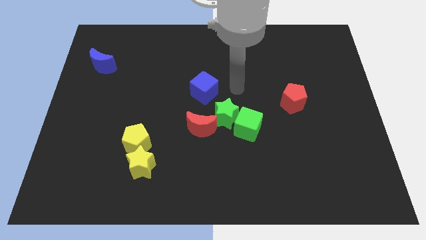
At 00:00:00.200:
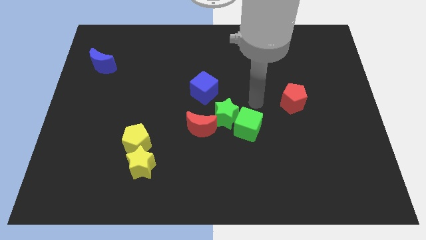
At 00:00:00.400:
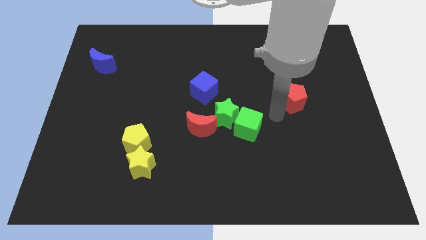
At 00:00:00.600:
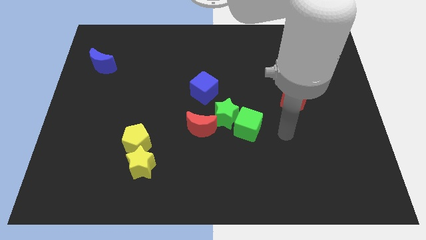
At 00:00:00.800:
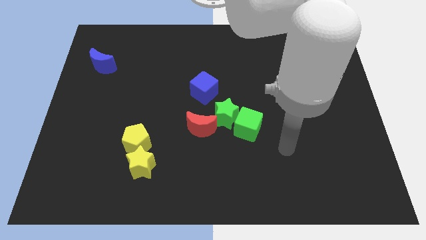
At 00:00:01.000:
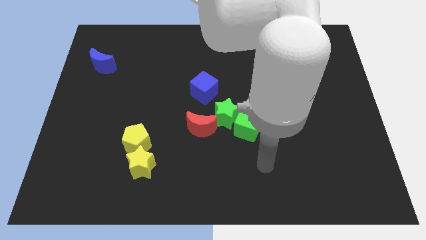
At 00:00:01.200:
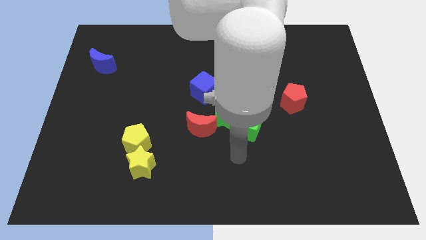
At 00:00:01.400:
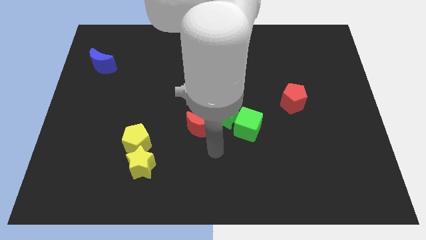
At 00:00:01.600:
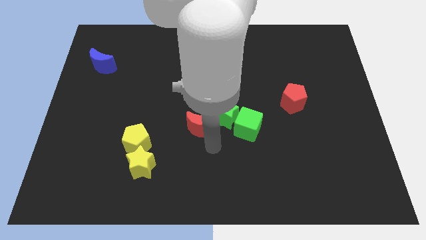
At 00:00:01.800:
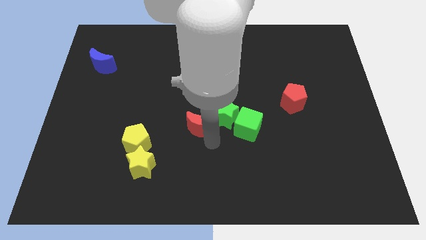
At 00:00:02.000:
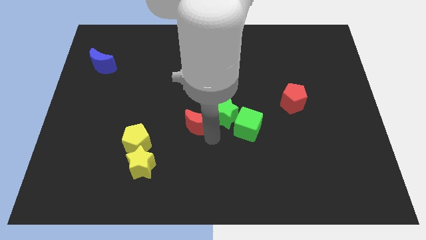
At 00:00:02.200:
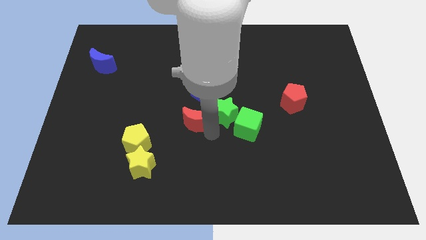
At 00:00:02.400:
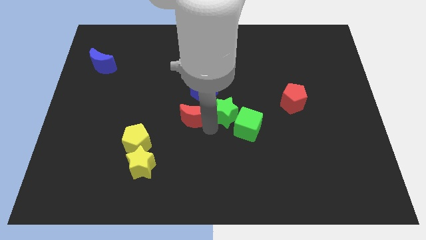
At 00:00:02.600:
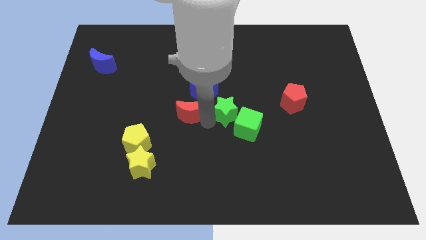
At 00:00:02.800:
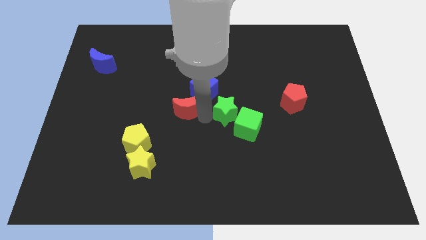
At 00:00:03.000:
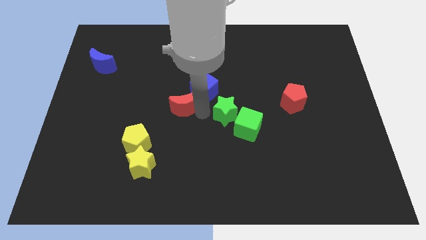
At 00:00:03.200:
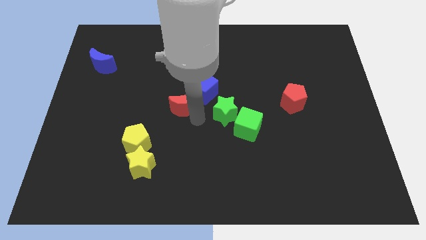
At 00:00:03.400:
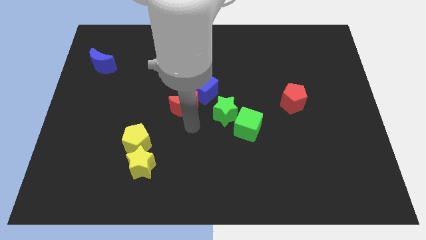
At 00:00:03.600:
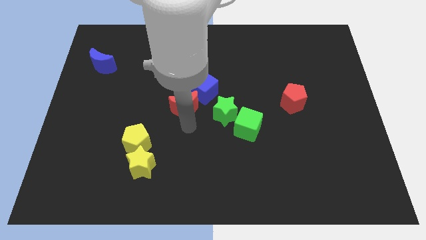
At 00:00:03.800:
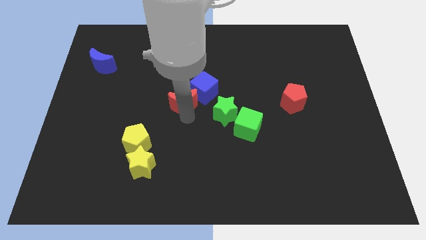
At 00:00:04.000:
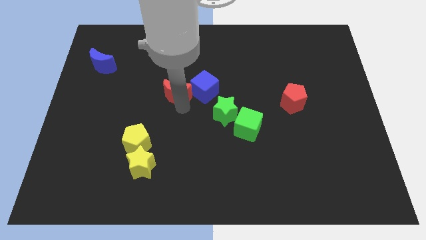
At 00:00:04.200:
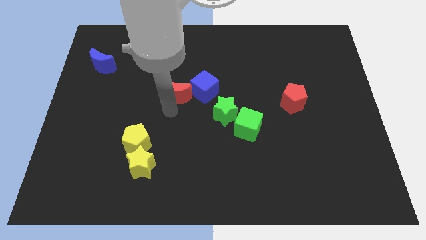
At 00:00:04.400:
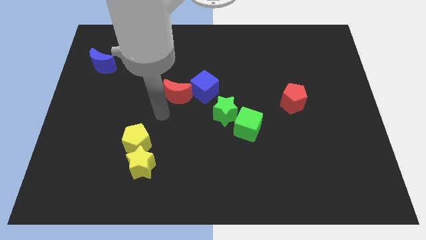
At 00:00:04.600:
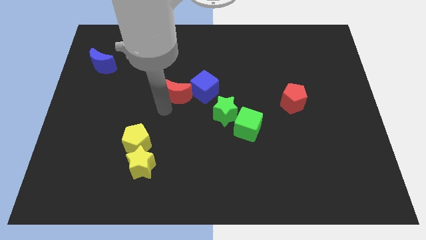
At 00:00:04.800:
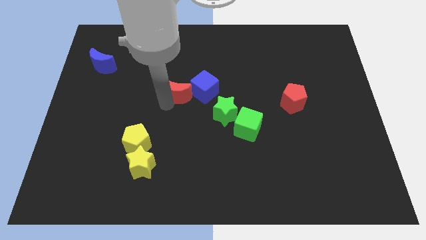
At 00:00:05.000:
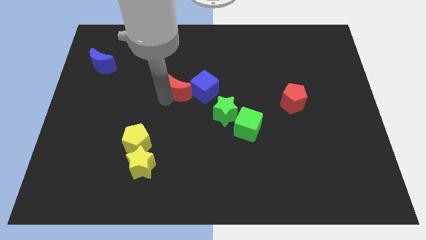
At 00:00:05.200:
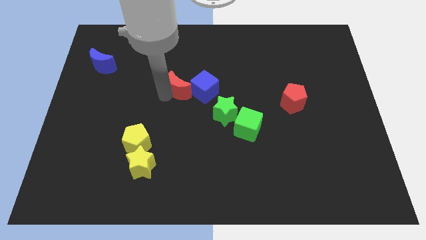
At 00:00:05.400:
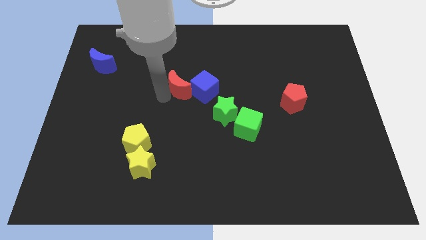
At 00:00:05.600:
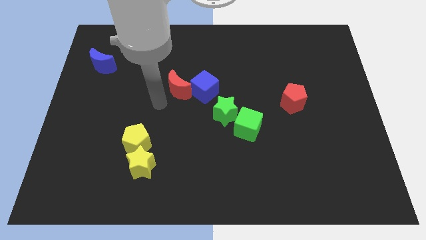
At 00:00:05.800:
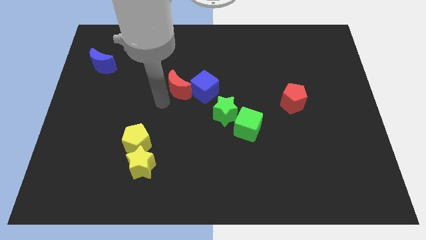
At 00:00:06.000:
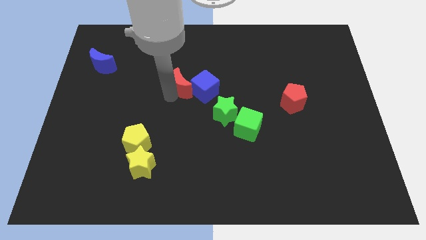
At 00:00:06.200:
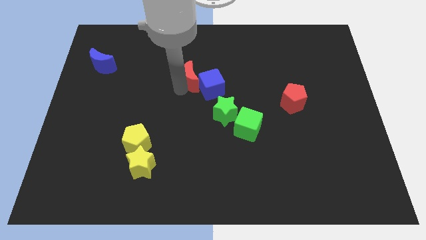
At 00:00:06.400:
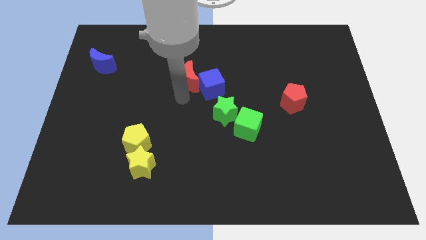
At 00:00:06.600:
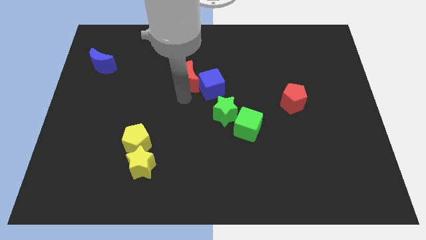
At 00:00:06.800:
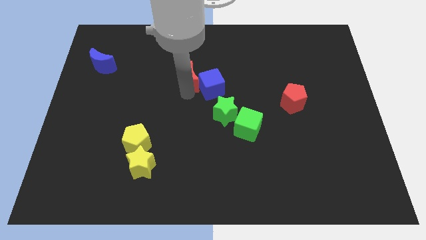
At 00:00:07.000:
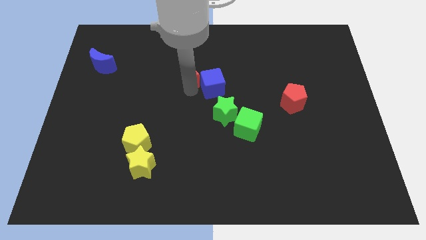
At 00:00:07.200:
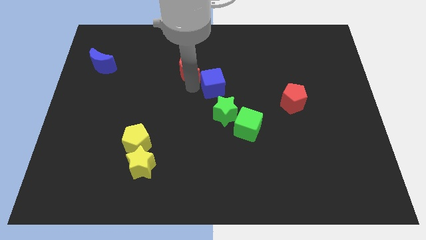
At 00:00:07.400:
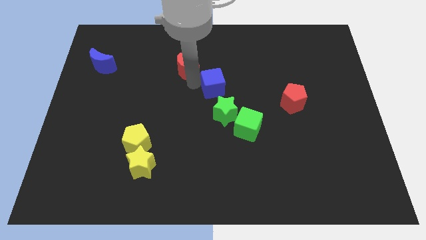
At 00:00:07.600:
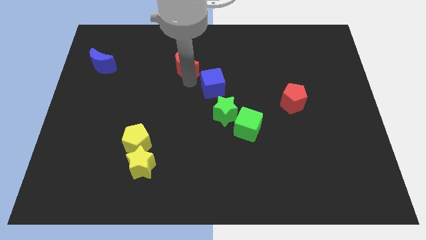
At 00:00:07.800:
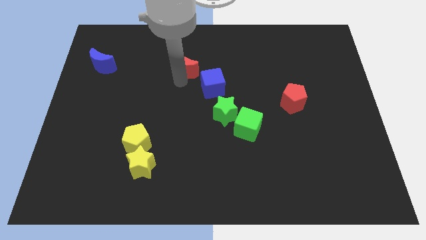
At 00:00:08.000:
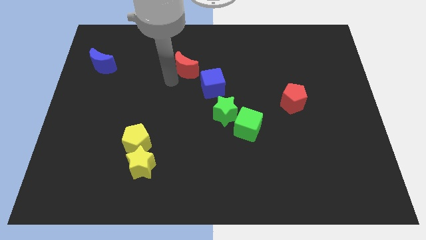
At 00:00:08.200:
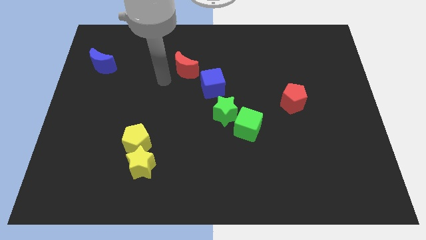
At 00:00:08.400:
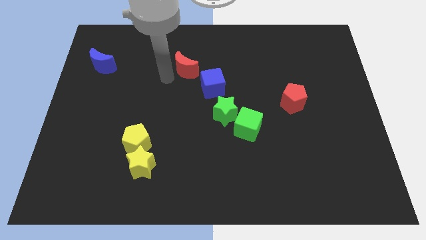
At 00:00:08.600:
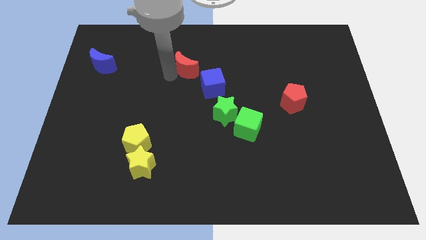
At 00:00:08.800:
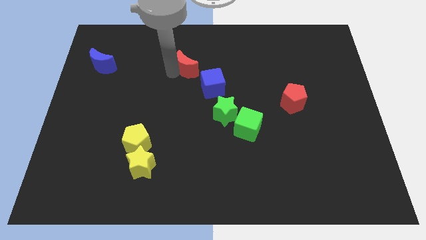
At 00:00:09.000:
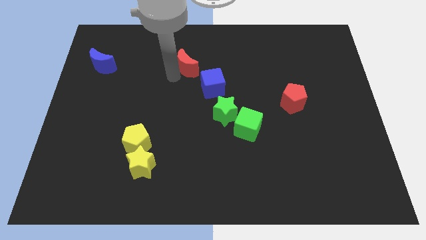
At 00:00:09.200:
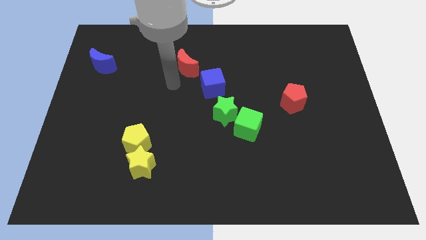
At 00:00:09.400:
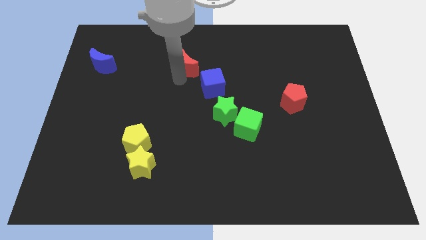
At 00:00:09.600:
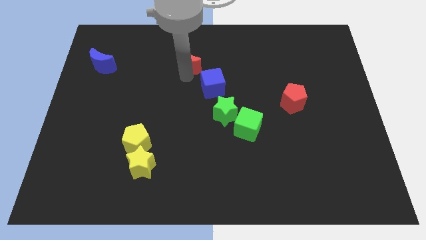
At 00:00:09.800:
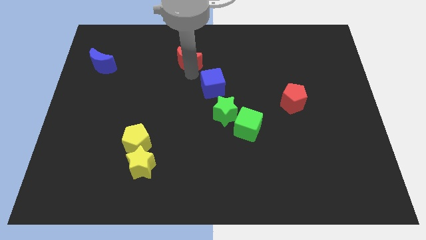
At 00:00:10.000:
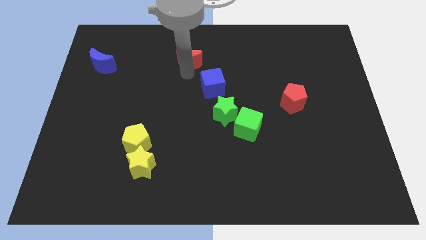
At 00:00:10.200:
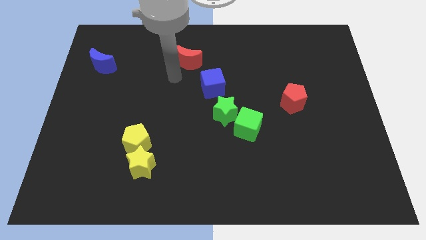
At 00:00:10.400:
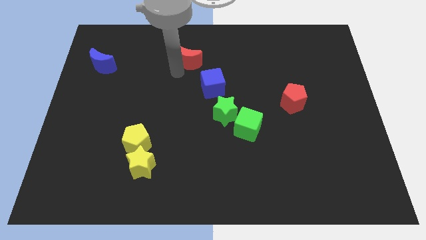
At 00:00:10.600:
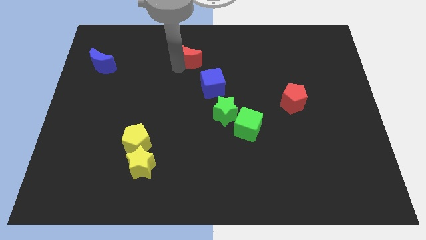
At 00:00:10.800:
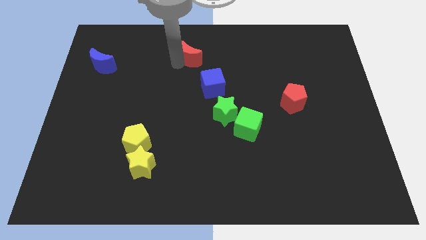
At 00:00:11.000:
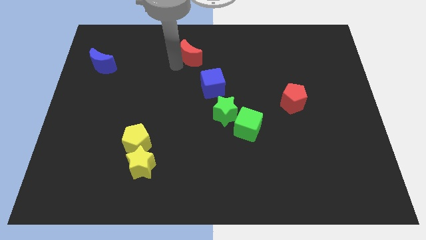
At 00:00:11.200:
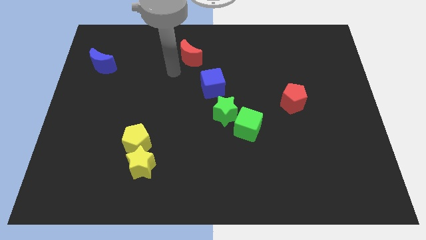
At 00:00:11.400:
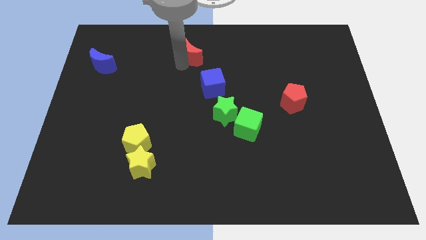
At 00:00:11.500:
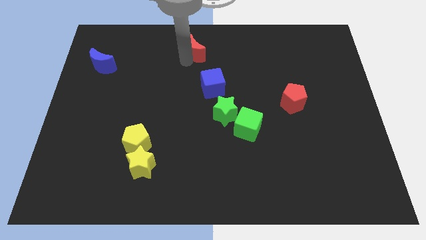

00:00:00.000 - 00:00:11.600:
push the red moon to the top

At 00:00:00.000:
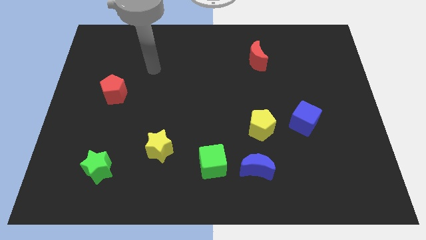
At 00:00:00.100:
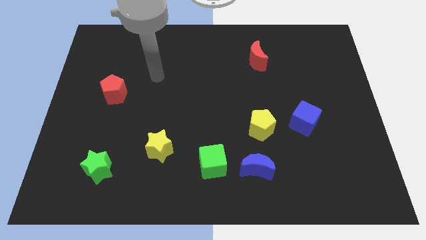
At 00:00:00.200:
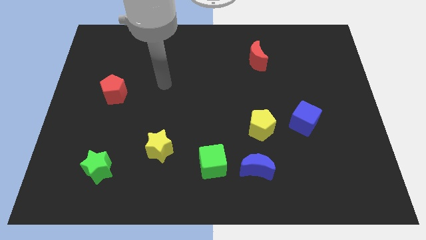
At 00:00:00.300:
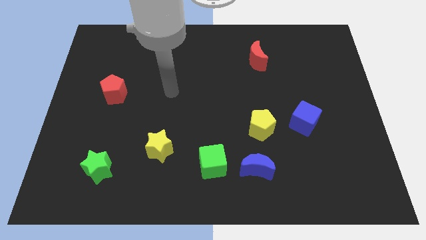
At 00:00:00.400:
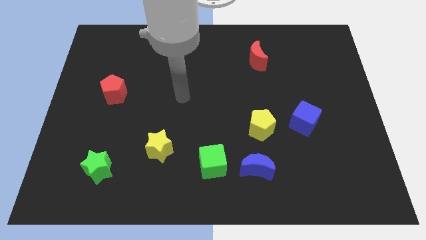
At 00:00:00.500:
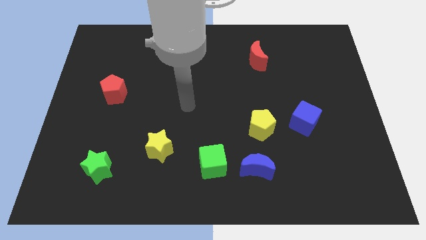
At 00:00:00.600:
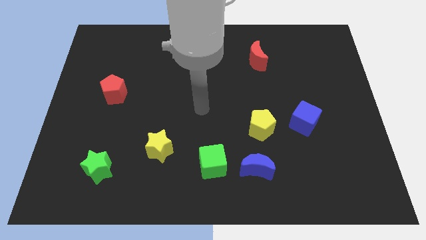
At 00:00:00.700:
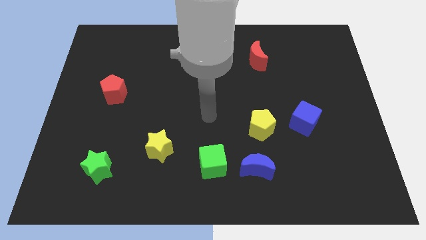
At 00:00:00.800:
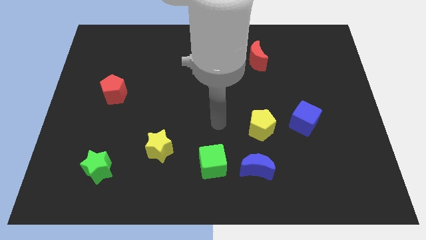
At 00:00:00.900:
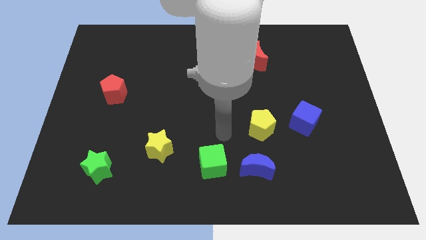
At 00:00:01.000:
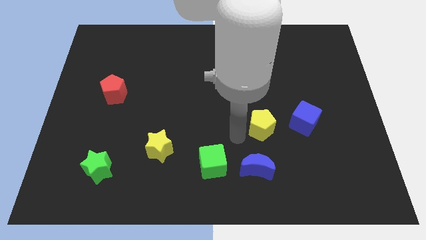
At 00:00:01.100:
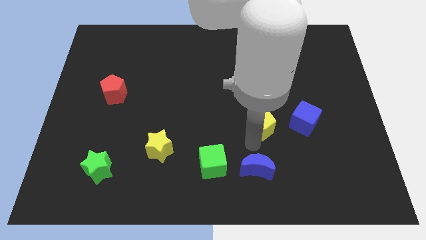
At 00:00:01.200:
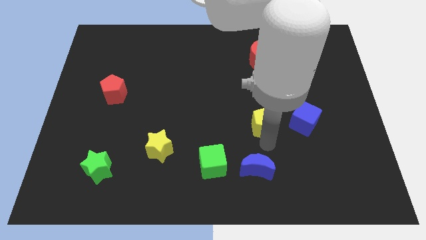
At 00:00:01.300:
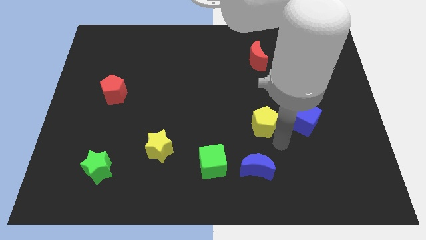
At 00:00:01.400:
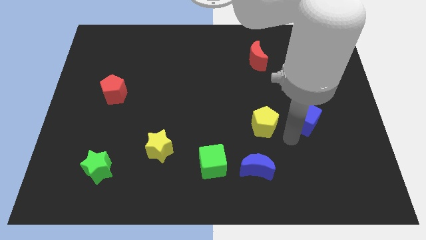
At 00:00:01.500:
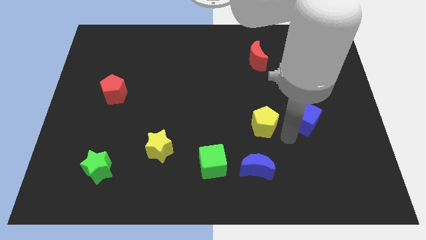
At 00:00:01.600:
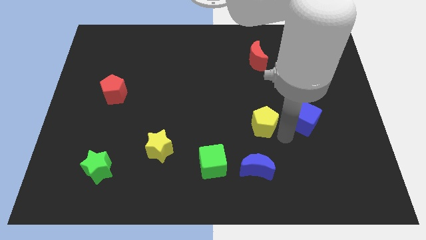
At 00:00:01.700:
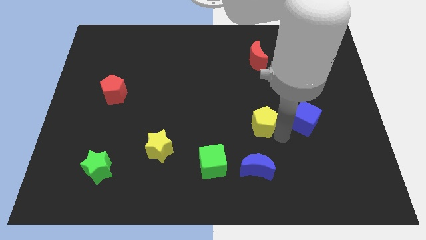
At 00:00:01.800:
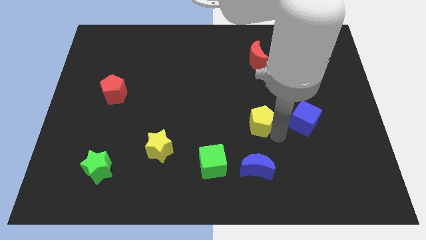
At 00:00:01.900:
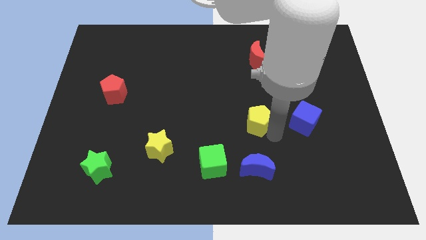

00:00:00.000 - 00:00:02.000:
slide the yellow pentagon to the middle of the board
